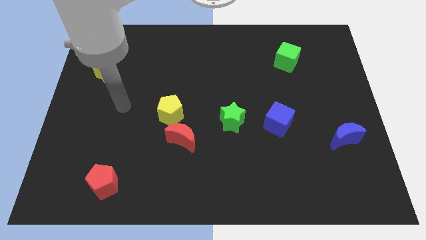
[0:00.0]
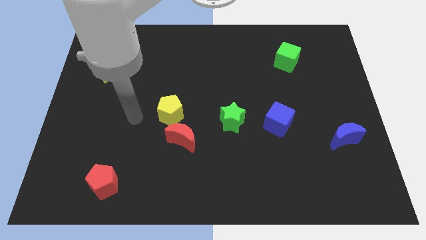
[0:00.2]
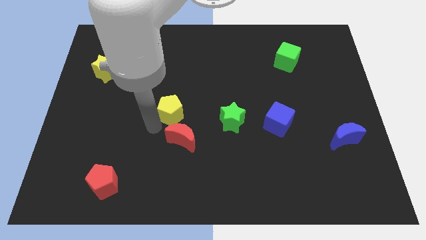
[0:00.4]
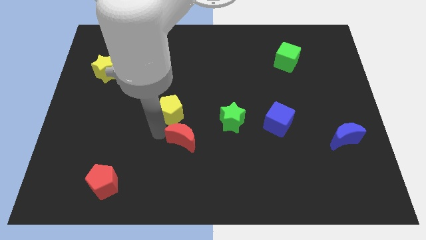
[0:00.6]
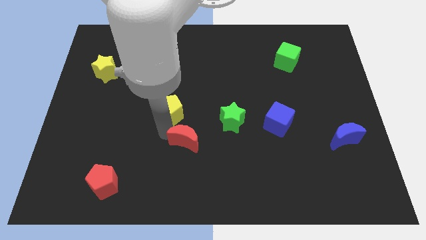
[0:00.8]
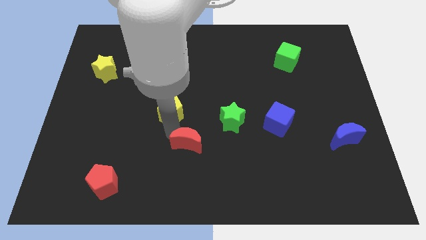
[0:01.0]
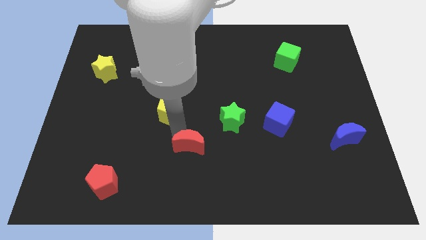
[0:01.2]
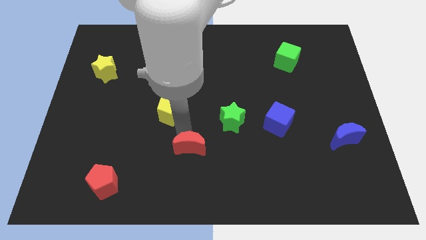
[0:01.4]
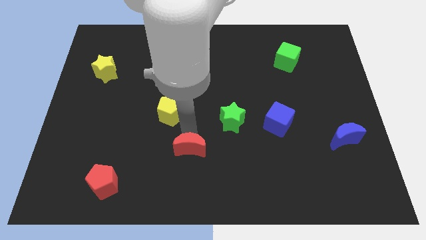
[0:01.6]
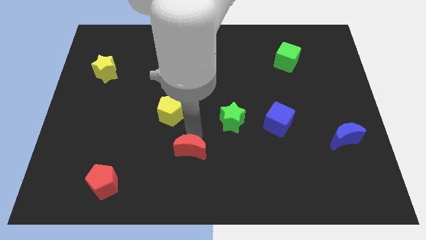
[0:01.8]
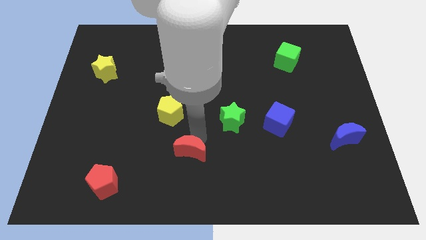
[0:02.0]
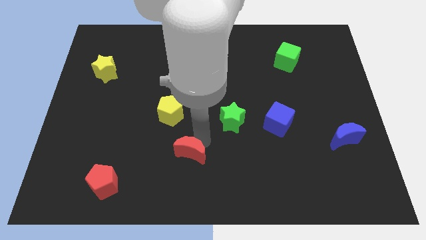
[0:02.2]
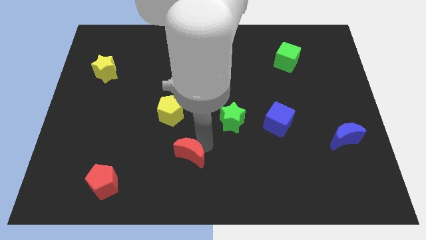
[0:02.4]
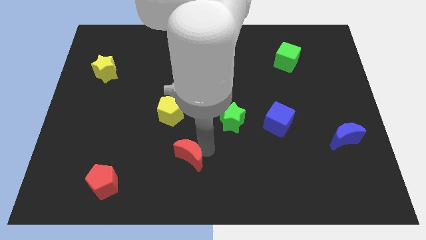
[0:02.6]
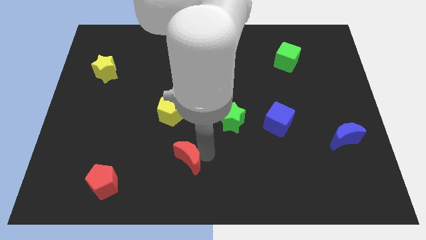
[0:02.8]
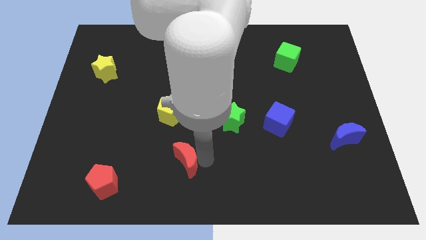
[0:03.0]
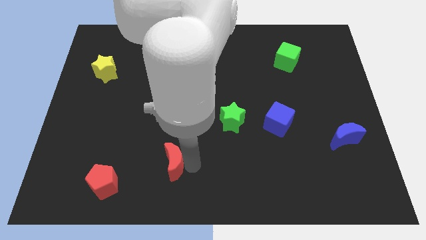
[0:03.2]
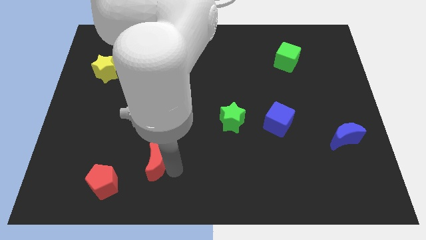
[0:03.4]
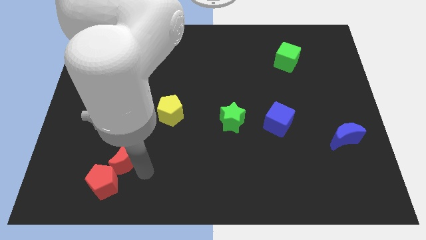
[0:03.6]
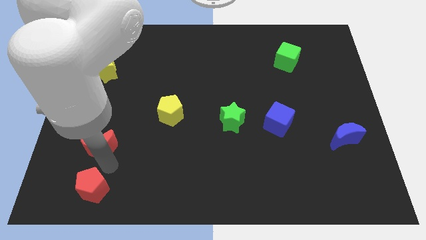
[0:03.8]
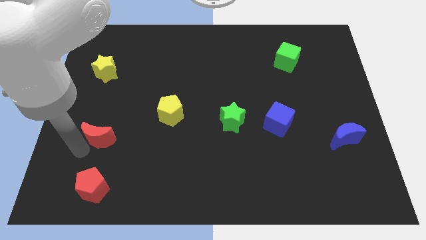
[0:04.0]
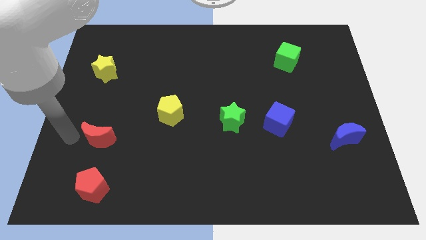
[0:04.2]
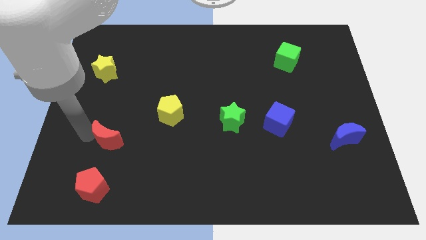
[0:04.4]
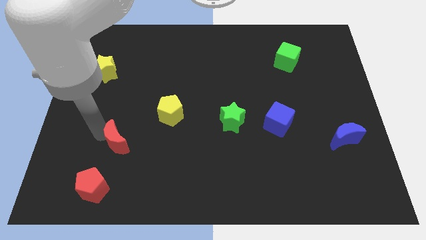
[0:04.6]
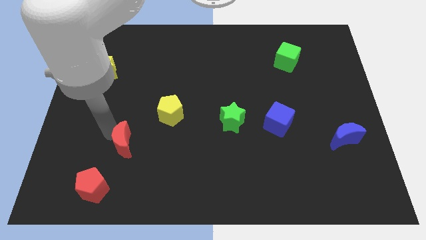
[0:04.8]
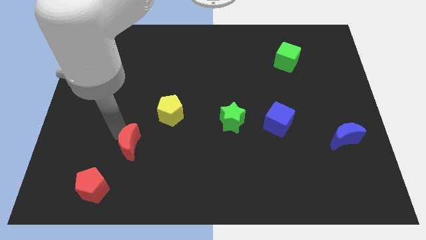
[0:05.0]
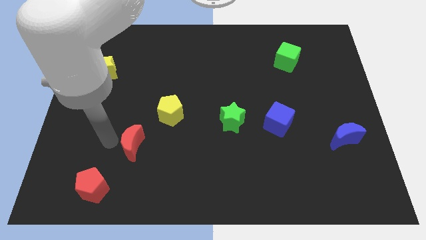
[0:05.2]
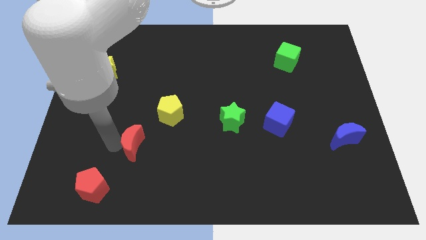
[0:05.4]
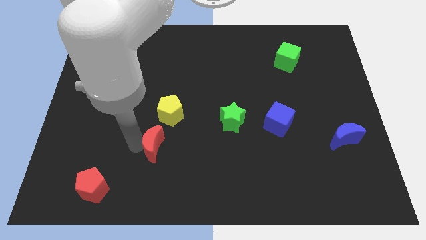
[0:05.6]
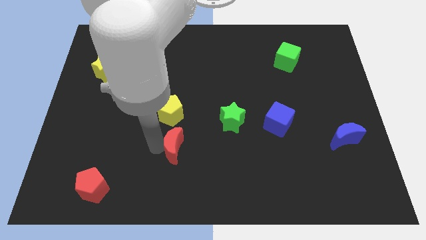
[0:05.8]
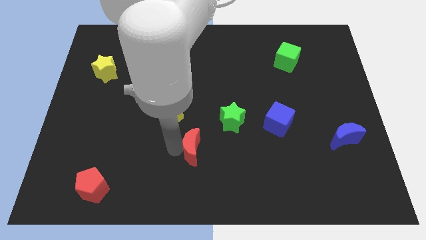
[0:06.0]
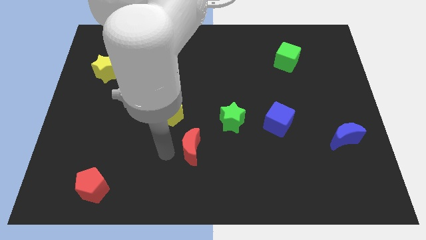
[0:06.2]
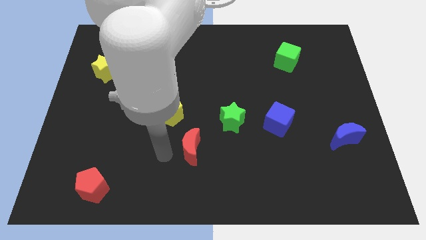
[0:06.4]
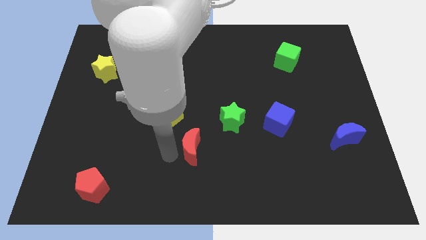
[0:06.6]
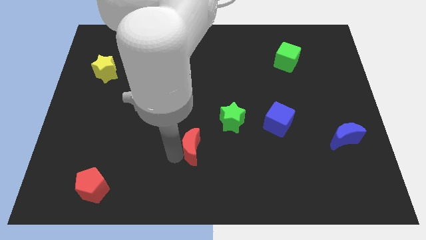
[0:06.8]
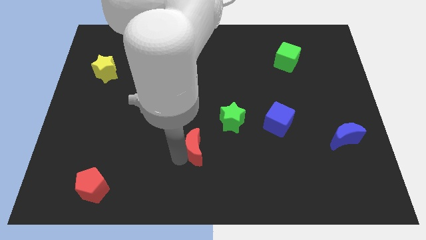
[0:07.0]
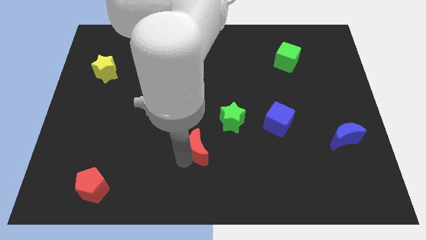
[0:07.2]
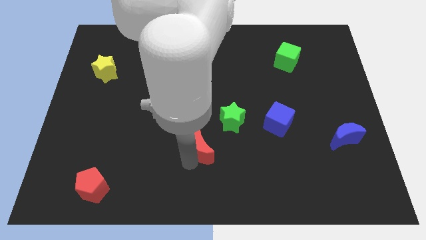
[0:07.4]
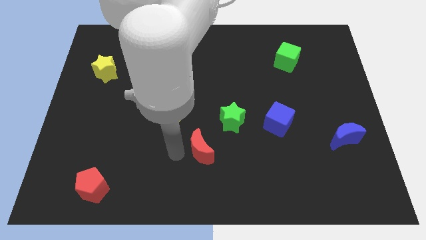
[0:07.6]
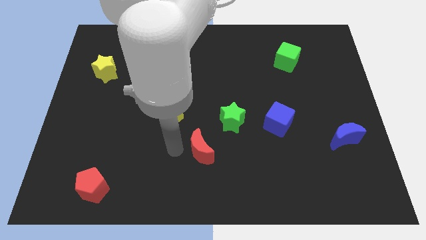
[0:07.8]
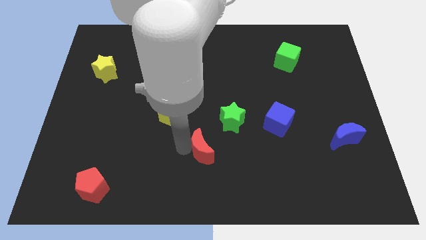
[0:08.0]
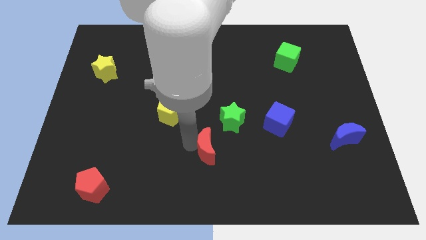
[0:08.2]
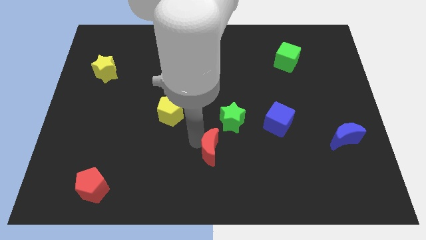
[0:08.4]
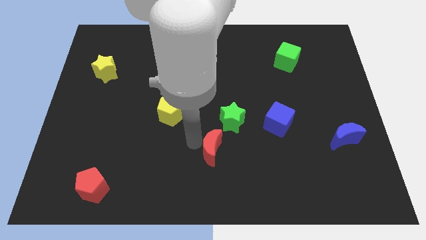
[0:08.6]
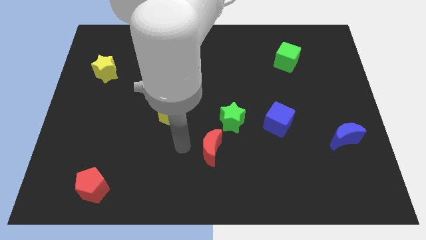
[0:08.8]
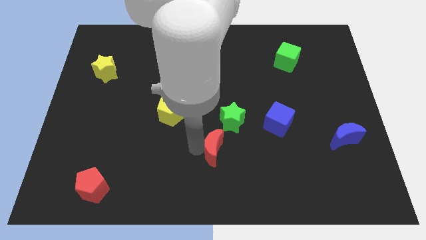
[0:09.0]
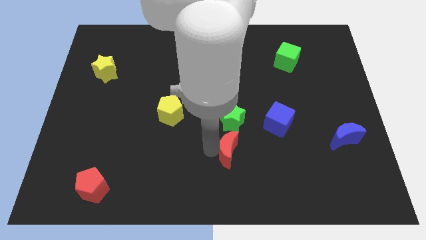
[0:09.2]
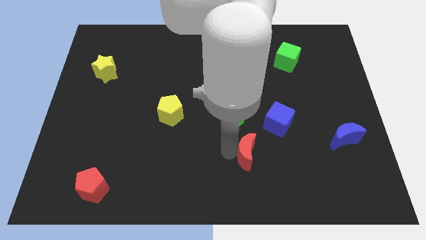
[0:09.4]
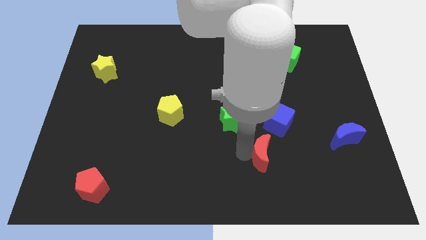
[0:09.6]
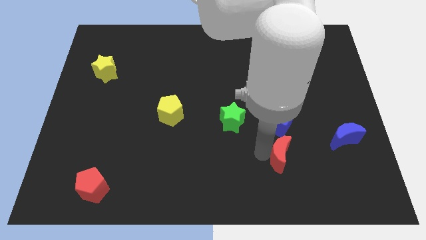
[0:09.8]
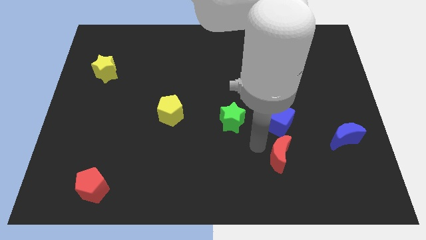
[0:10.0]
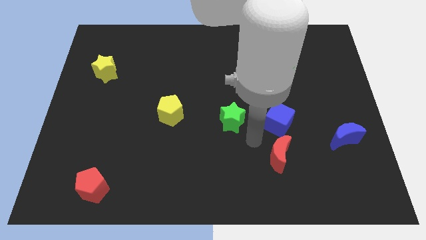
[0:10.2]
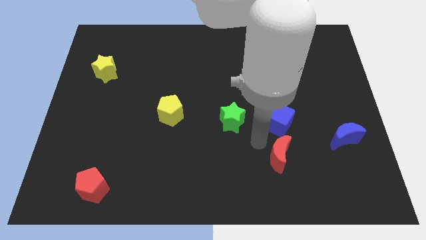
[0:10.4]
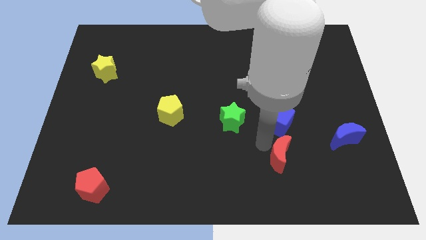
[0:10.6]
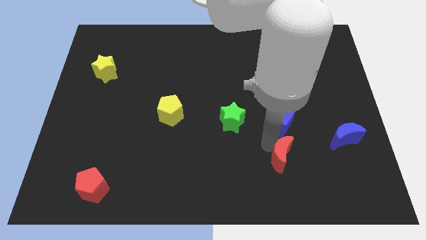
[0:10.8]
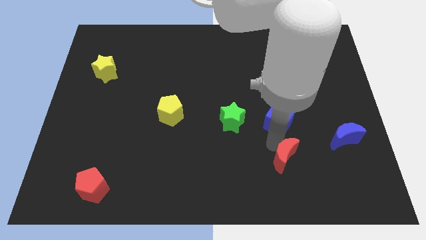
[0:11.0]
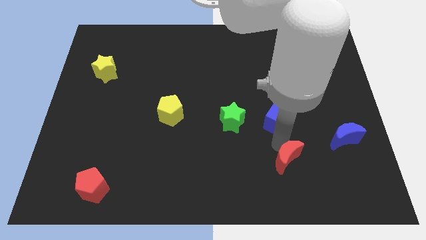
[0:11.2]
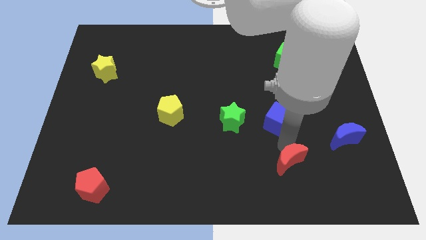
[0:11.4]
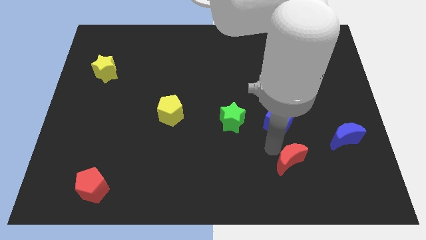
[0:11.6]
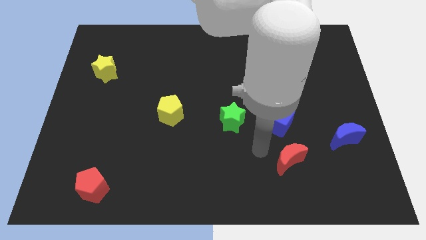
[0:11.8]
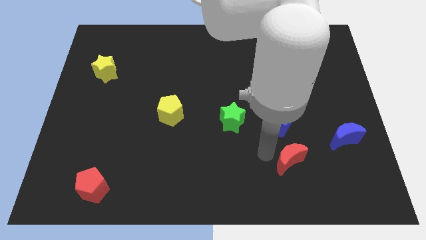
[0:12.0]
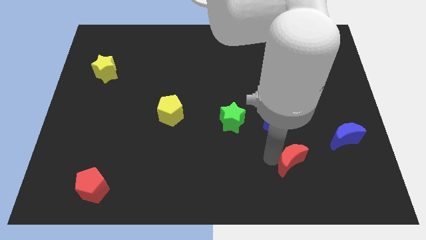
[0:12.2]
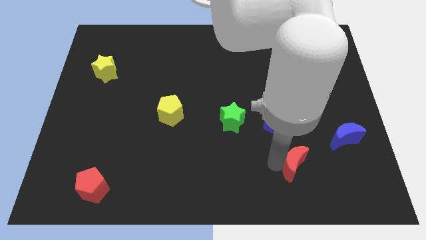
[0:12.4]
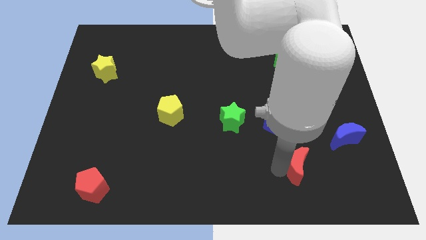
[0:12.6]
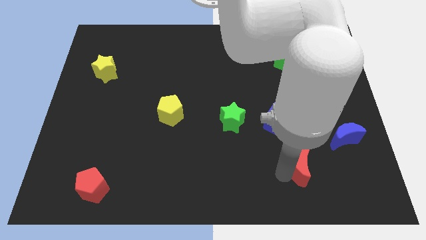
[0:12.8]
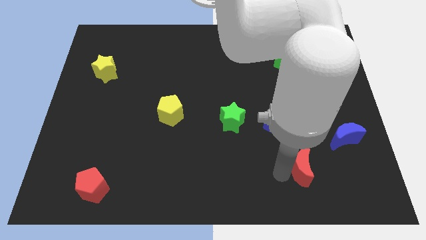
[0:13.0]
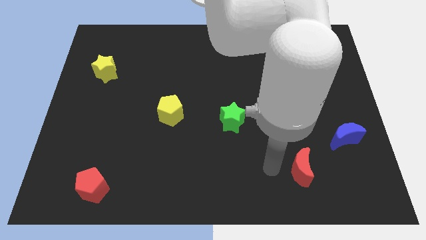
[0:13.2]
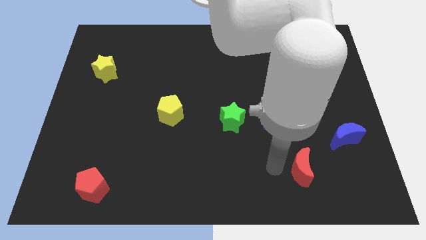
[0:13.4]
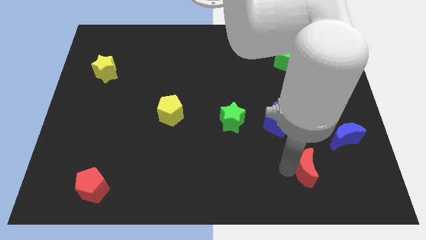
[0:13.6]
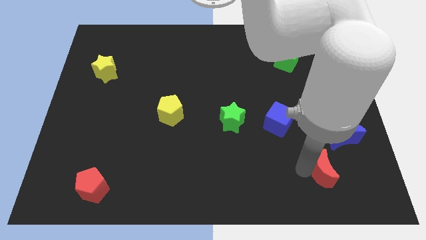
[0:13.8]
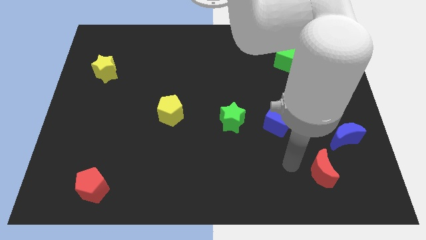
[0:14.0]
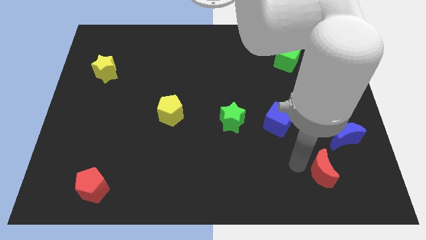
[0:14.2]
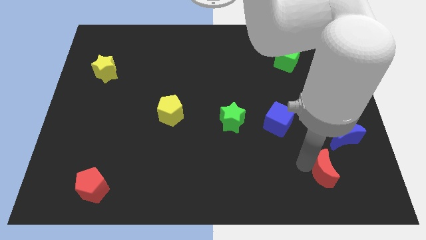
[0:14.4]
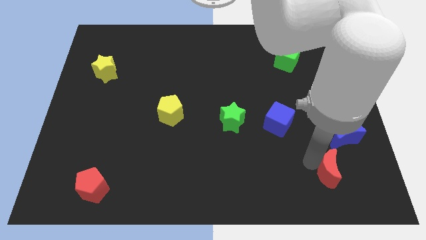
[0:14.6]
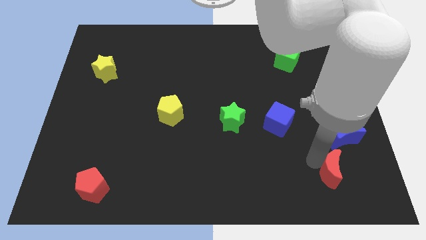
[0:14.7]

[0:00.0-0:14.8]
push the red moon to the bottom of the blue moon
